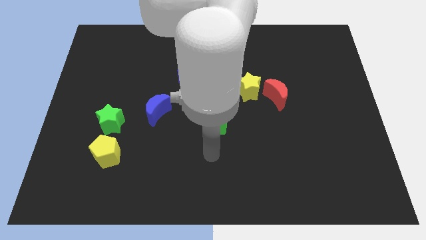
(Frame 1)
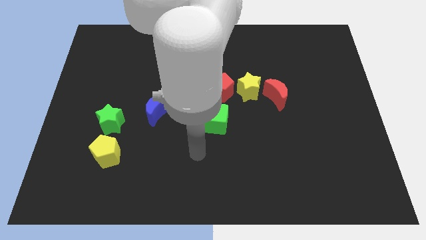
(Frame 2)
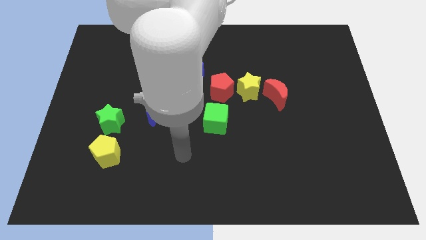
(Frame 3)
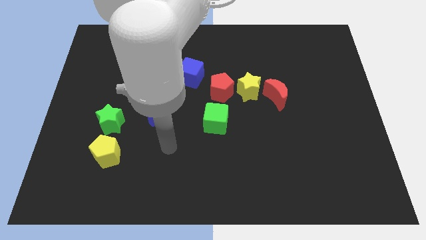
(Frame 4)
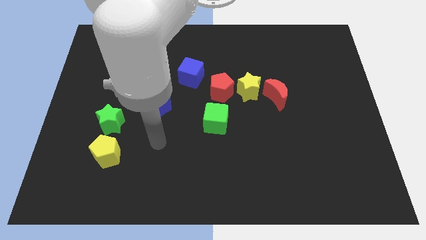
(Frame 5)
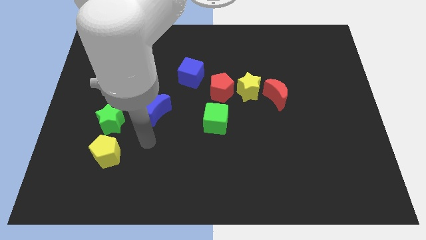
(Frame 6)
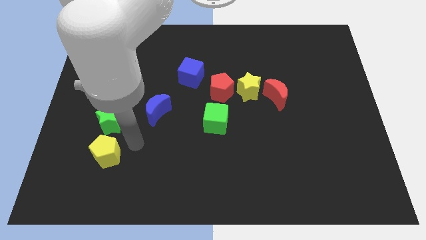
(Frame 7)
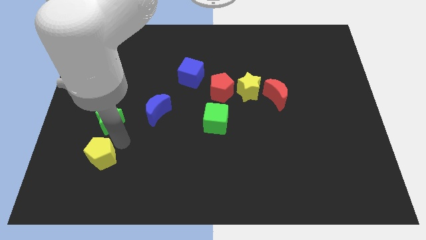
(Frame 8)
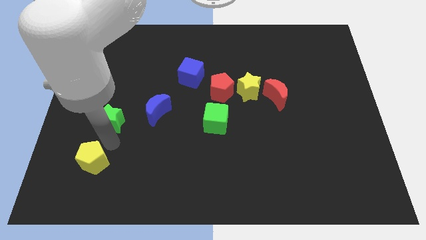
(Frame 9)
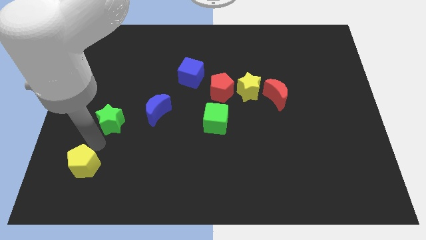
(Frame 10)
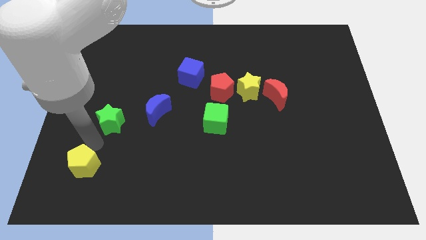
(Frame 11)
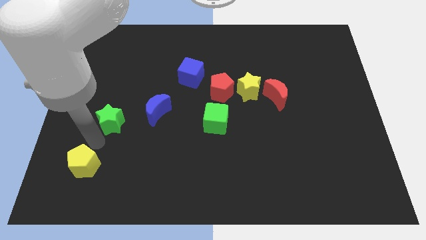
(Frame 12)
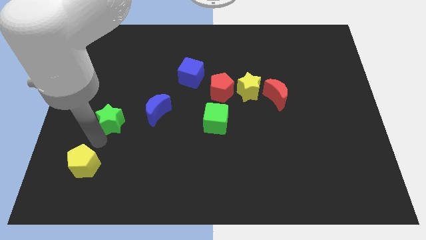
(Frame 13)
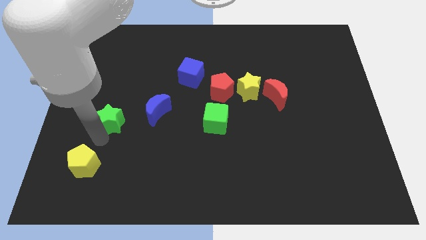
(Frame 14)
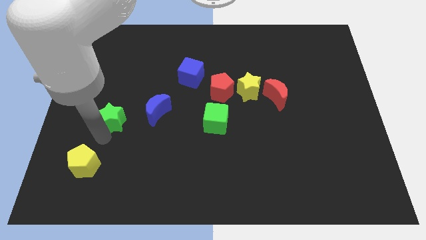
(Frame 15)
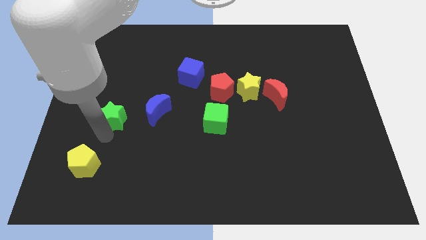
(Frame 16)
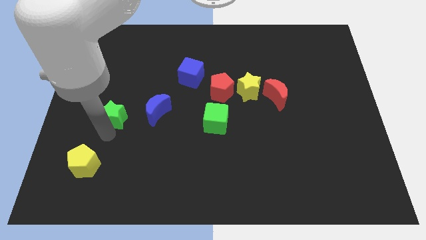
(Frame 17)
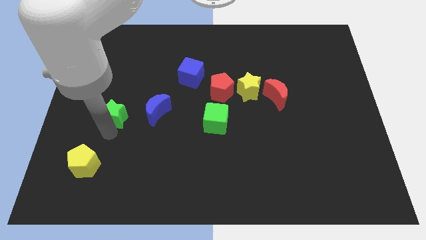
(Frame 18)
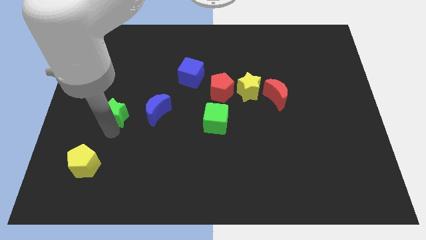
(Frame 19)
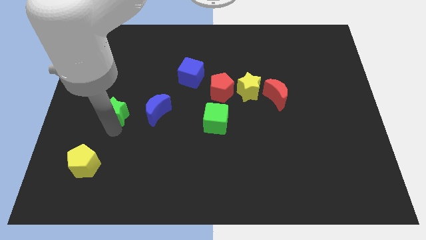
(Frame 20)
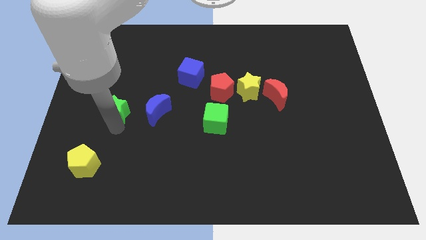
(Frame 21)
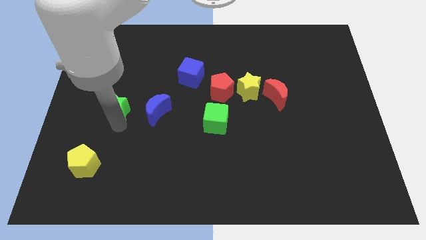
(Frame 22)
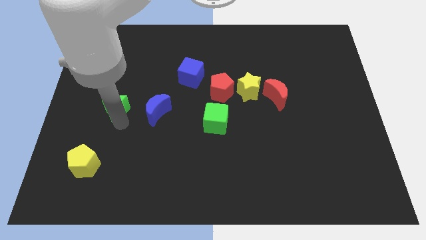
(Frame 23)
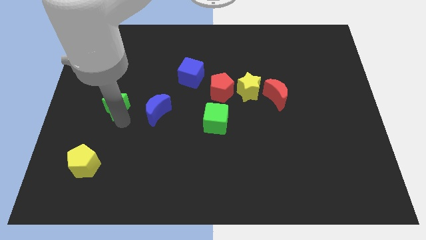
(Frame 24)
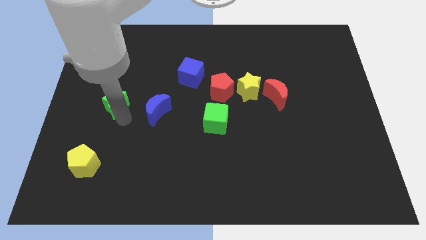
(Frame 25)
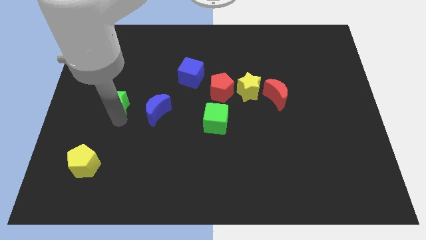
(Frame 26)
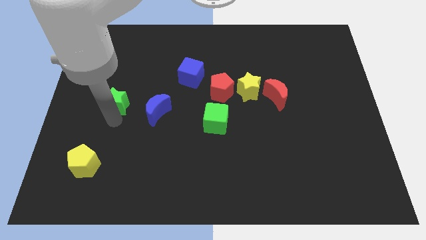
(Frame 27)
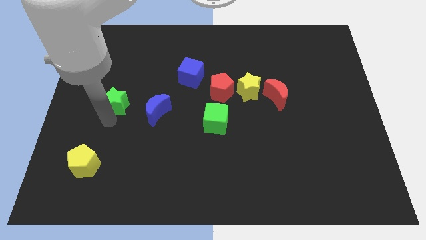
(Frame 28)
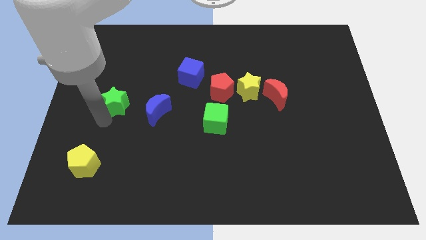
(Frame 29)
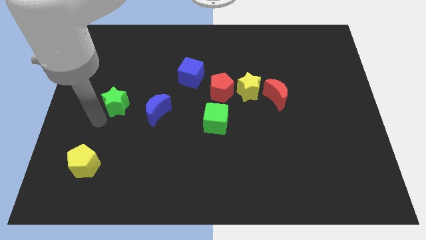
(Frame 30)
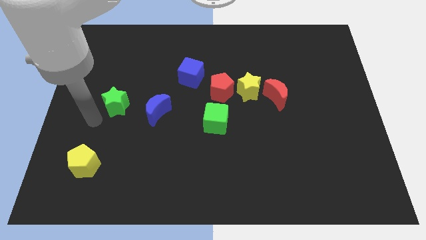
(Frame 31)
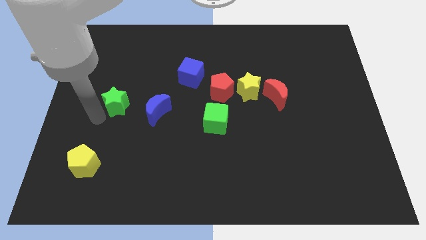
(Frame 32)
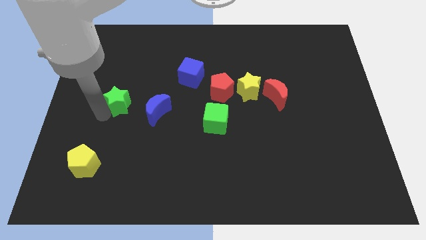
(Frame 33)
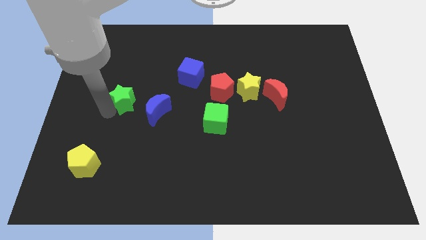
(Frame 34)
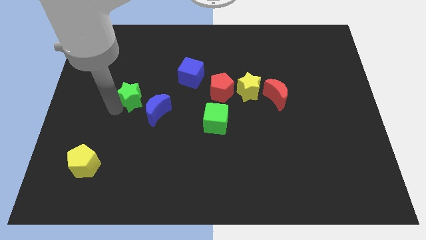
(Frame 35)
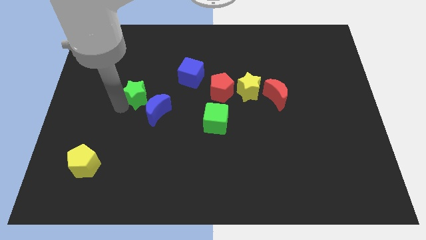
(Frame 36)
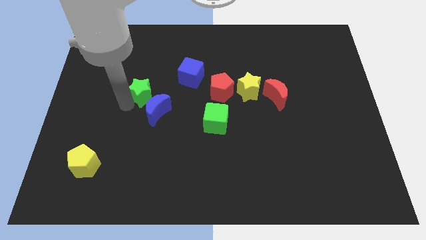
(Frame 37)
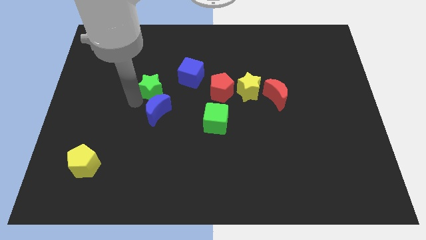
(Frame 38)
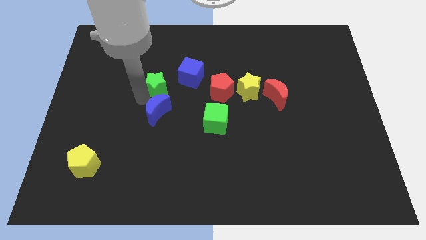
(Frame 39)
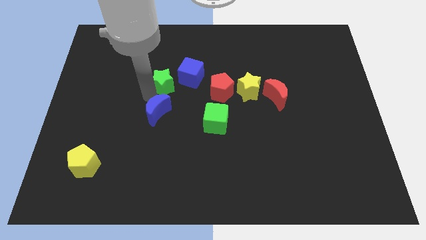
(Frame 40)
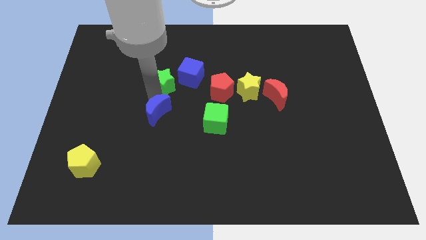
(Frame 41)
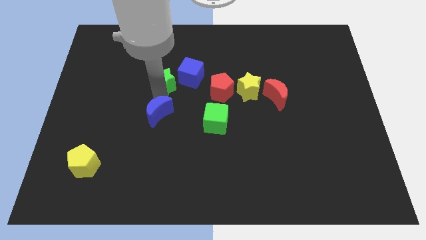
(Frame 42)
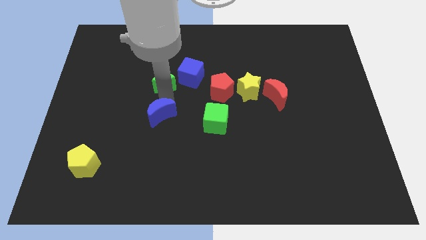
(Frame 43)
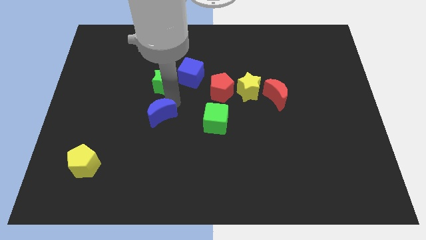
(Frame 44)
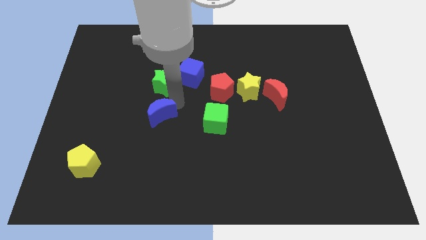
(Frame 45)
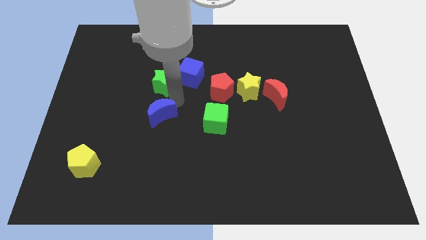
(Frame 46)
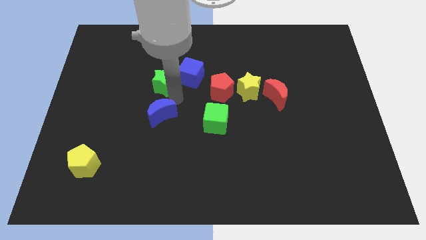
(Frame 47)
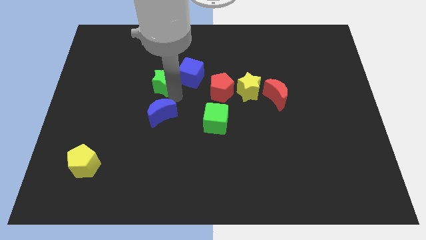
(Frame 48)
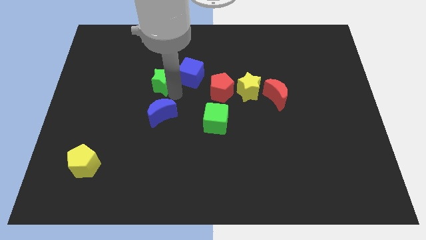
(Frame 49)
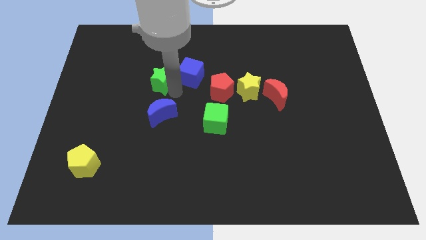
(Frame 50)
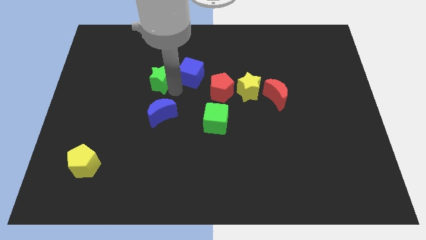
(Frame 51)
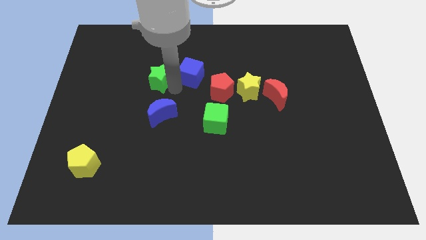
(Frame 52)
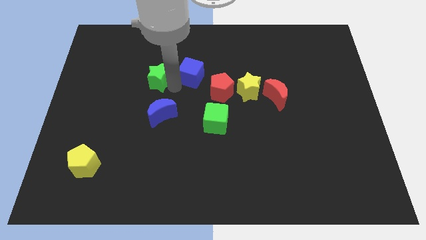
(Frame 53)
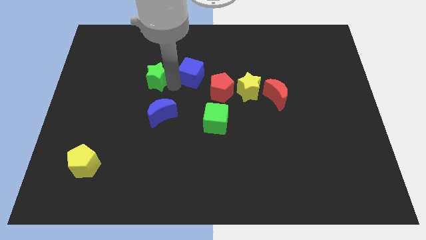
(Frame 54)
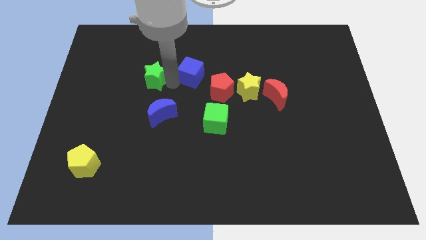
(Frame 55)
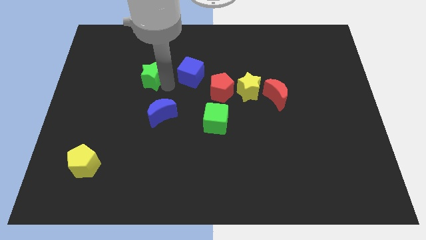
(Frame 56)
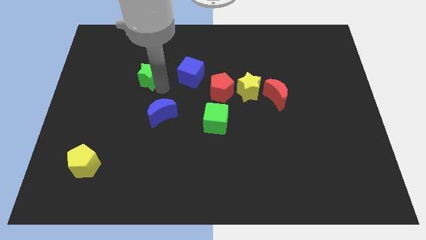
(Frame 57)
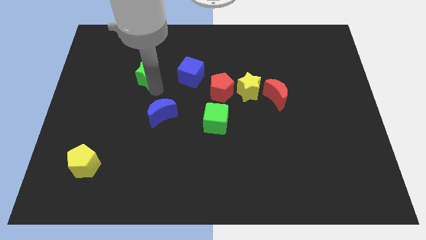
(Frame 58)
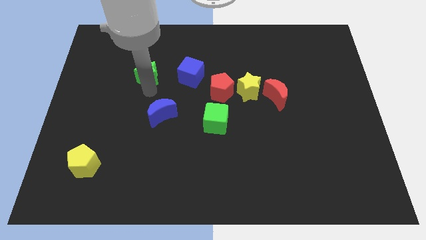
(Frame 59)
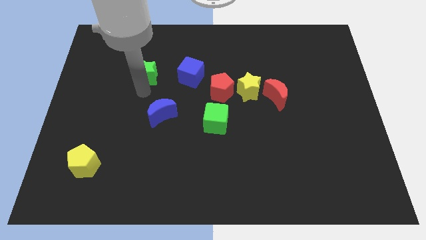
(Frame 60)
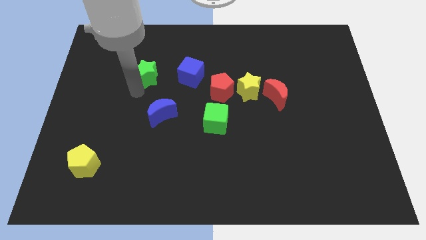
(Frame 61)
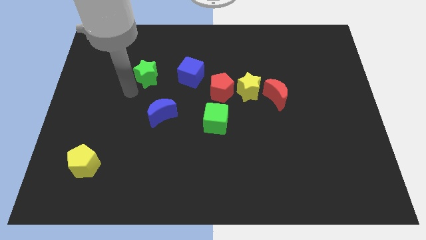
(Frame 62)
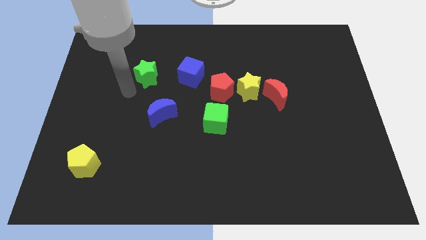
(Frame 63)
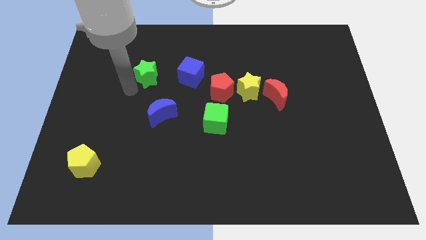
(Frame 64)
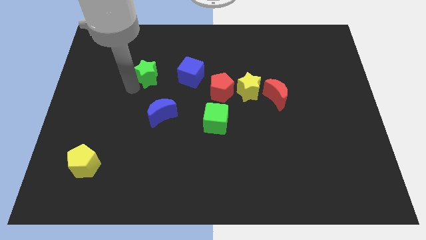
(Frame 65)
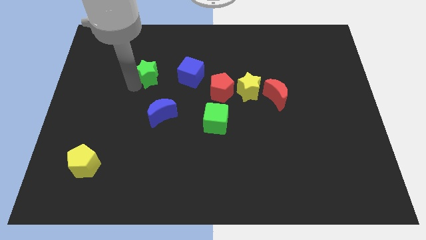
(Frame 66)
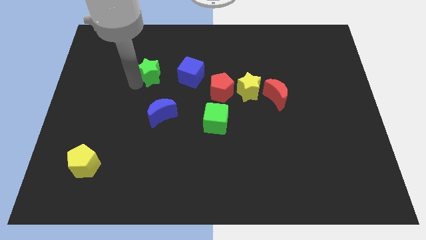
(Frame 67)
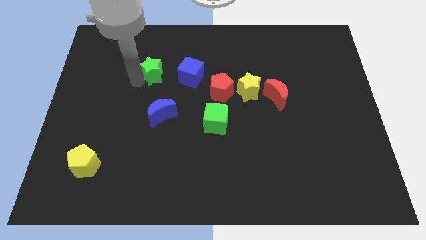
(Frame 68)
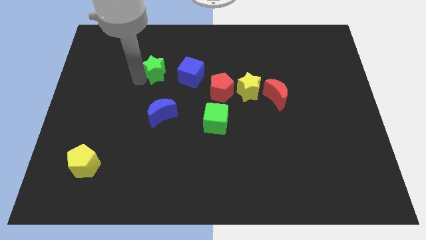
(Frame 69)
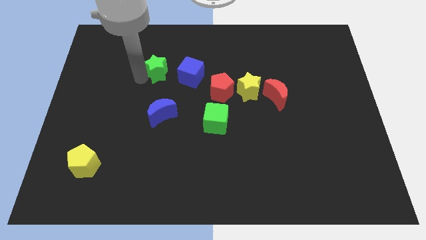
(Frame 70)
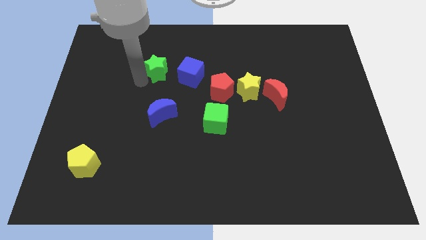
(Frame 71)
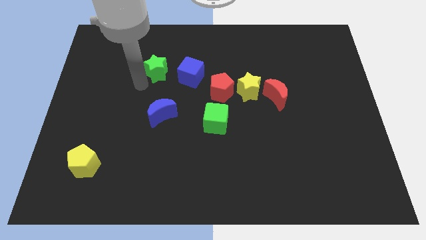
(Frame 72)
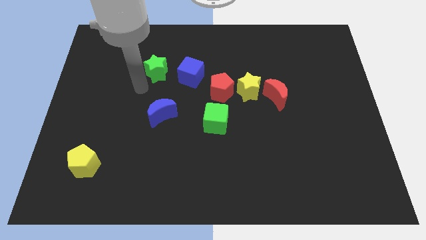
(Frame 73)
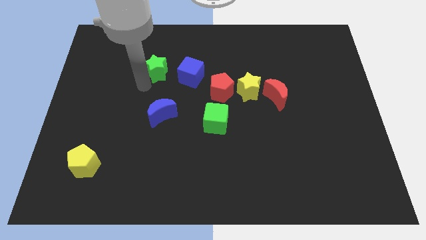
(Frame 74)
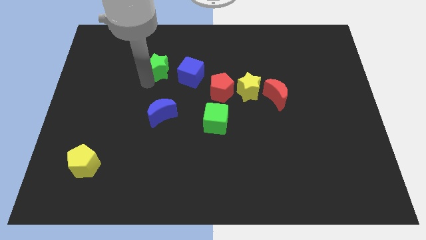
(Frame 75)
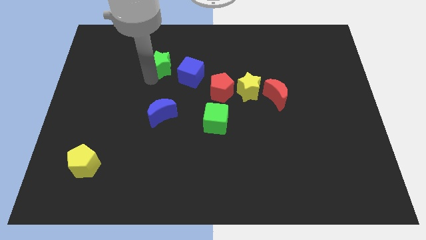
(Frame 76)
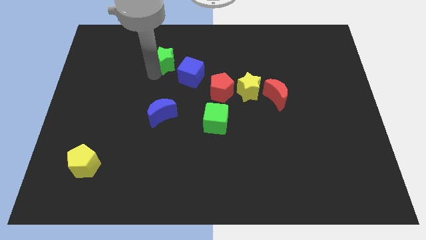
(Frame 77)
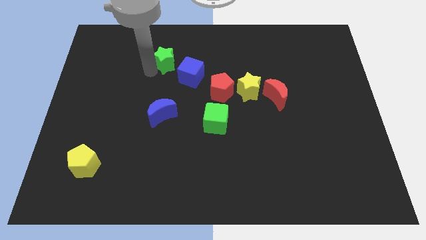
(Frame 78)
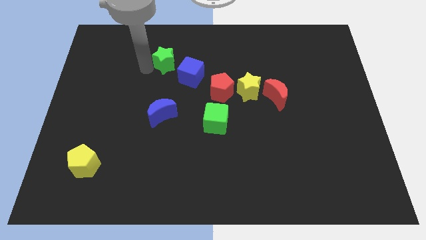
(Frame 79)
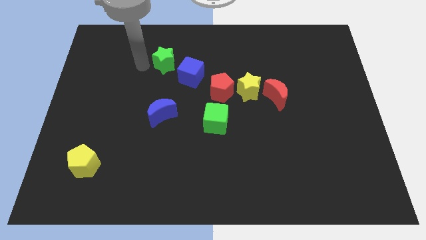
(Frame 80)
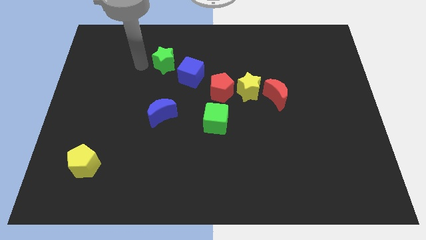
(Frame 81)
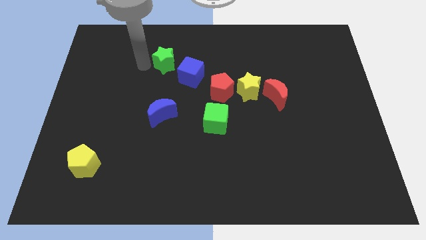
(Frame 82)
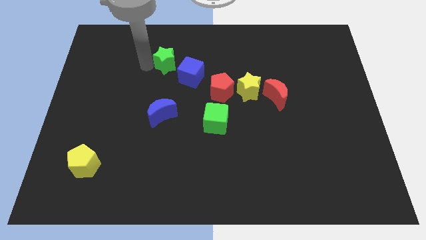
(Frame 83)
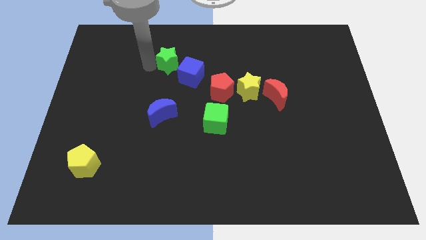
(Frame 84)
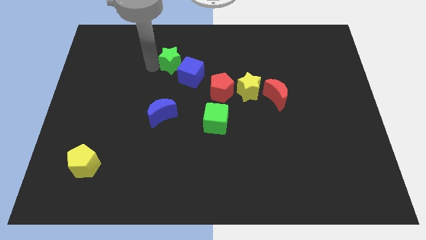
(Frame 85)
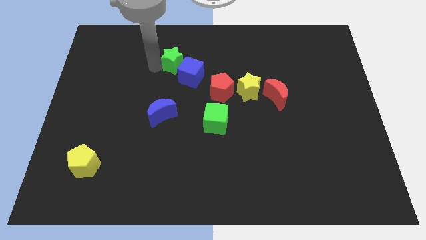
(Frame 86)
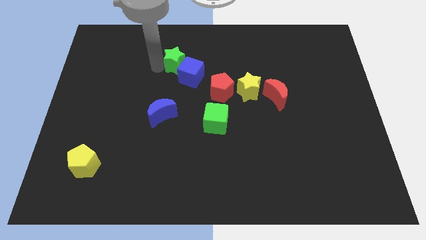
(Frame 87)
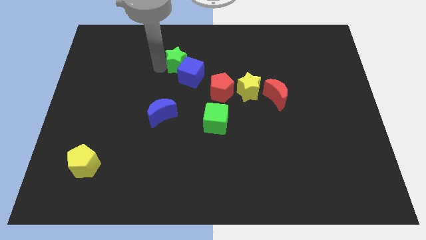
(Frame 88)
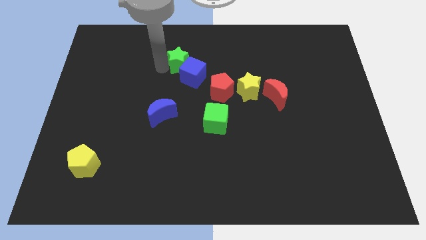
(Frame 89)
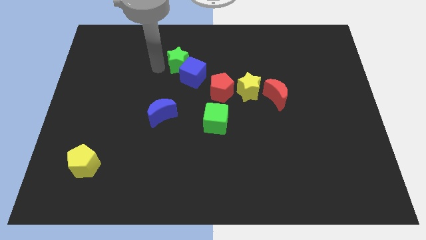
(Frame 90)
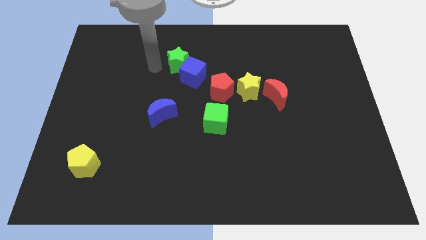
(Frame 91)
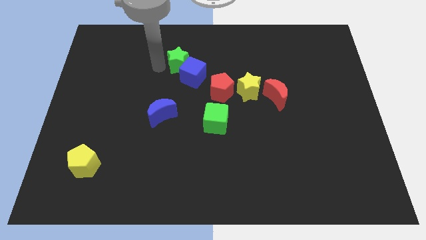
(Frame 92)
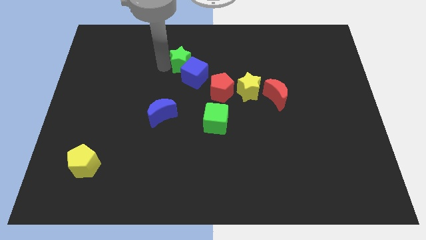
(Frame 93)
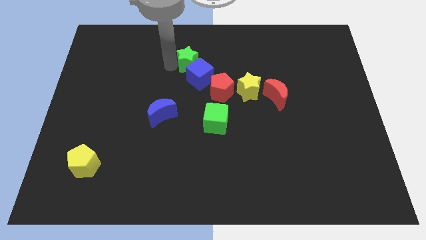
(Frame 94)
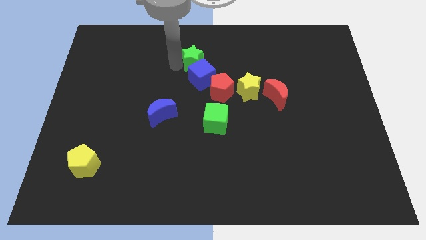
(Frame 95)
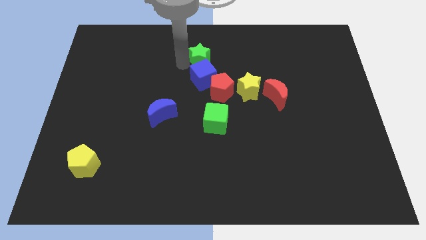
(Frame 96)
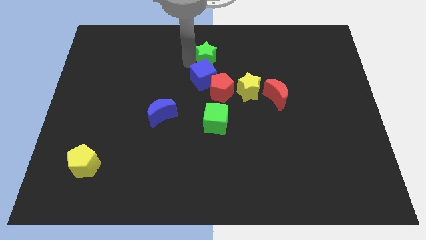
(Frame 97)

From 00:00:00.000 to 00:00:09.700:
put the green star above the red pentagon
